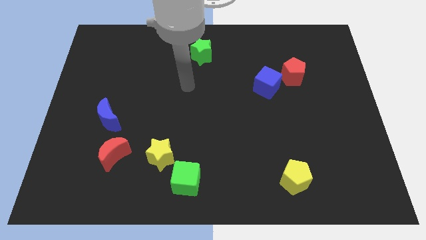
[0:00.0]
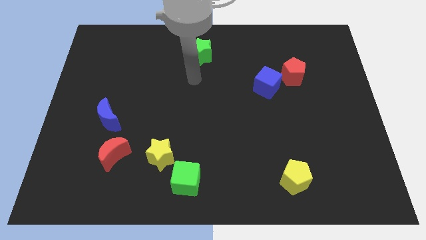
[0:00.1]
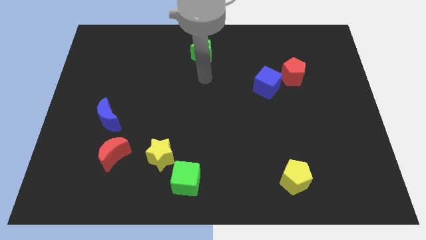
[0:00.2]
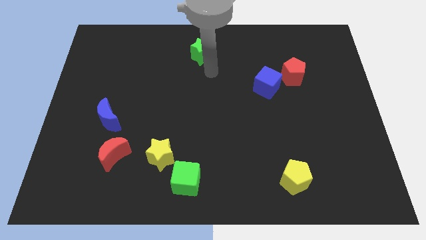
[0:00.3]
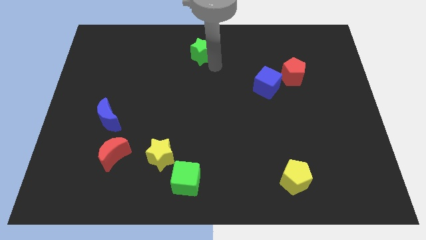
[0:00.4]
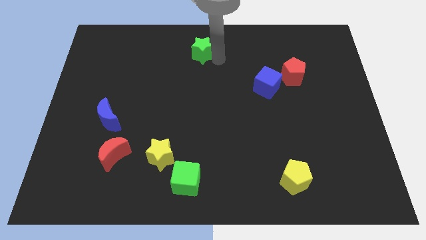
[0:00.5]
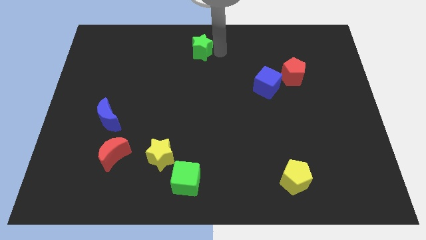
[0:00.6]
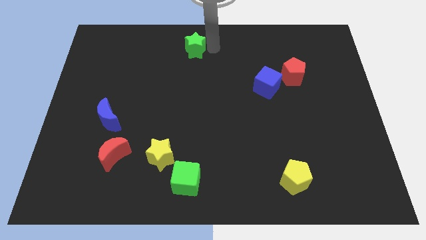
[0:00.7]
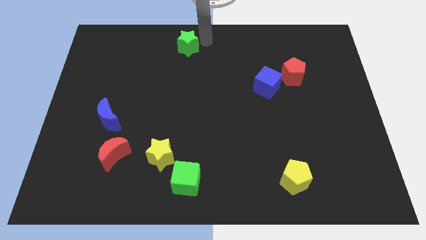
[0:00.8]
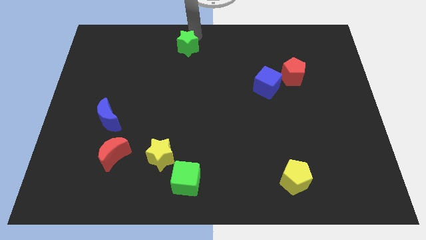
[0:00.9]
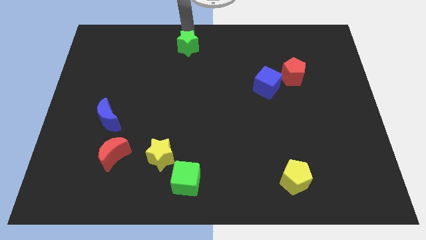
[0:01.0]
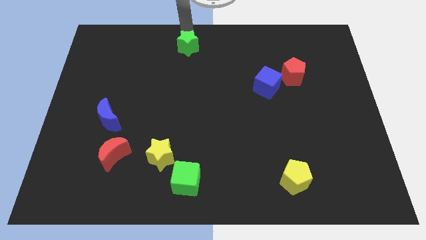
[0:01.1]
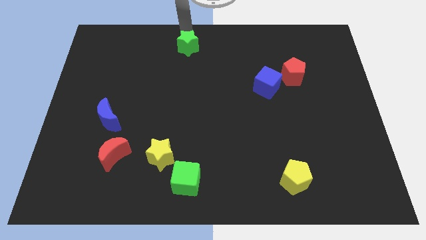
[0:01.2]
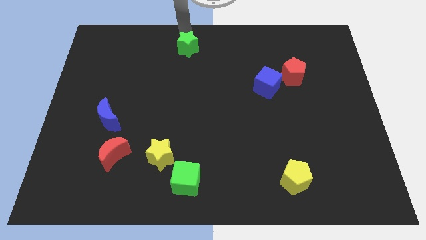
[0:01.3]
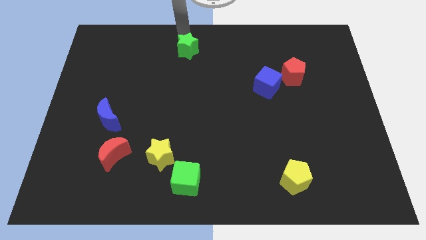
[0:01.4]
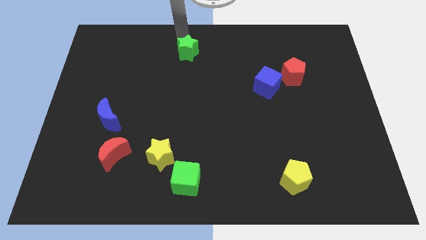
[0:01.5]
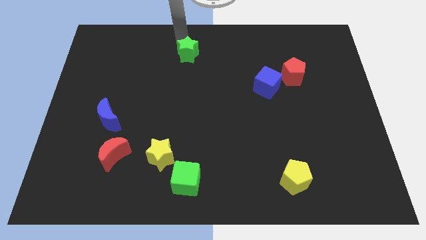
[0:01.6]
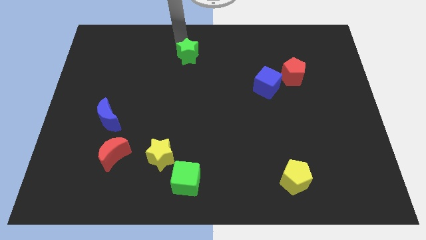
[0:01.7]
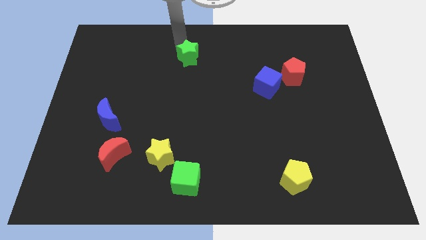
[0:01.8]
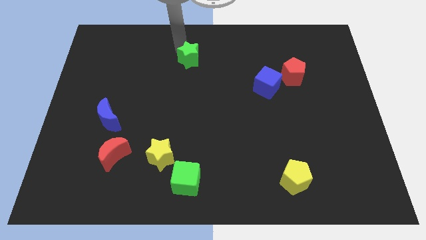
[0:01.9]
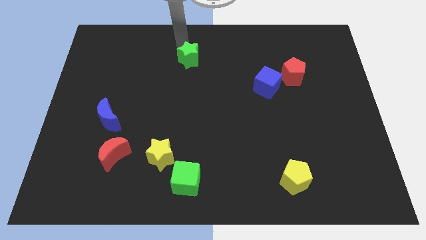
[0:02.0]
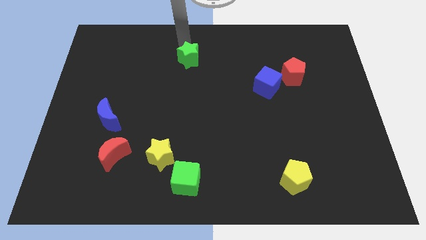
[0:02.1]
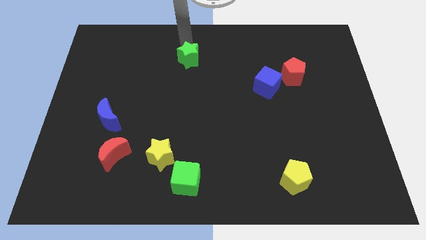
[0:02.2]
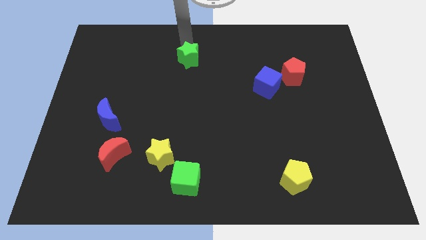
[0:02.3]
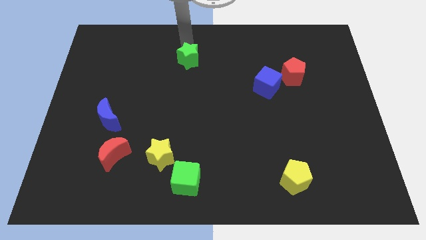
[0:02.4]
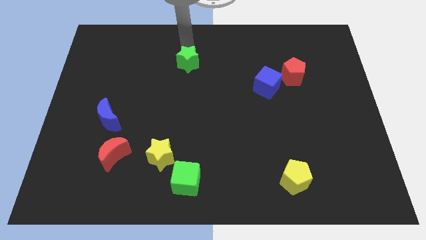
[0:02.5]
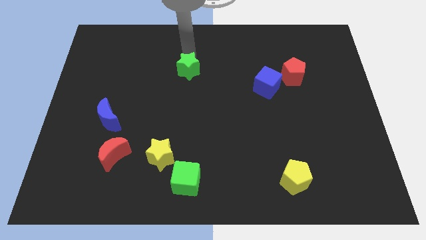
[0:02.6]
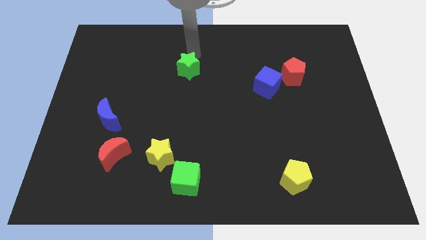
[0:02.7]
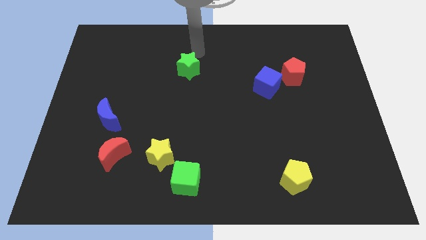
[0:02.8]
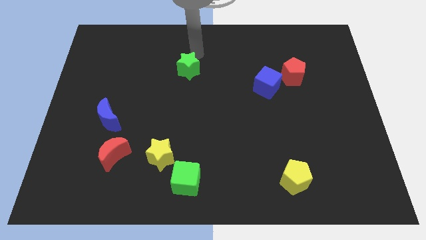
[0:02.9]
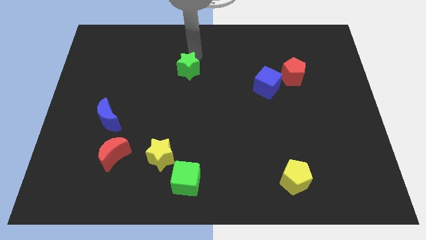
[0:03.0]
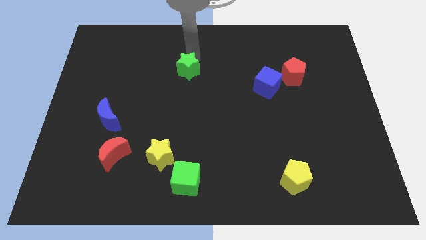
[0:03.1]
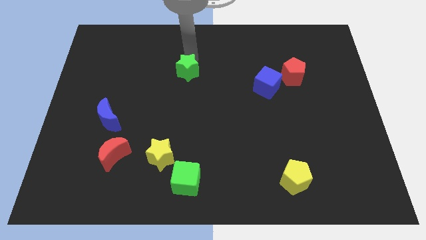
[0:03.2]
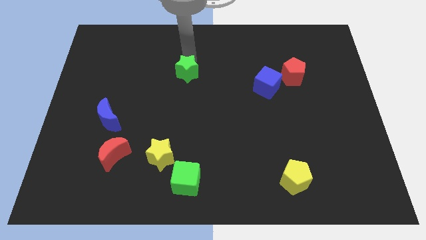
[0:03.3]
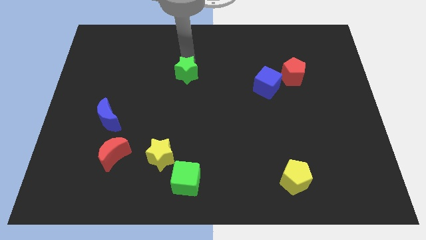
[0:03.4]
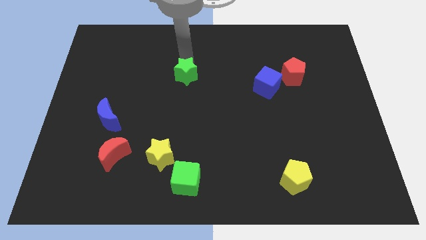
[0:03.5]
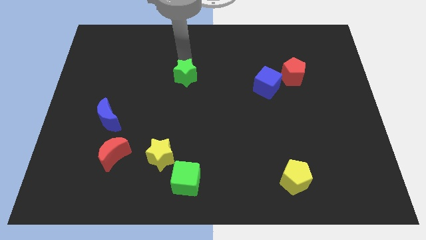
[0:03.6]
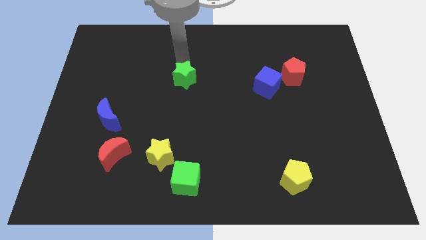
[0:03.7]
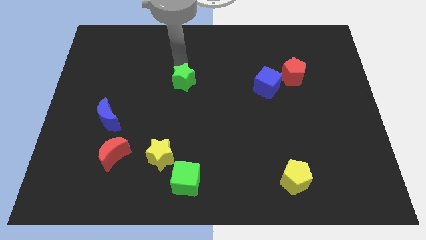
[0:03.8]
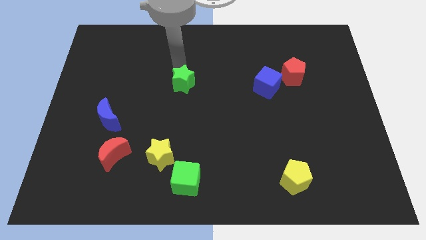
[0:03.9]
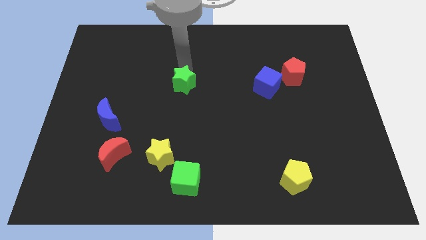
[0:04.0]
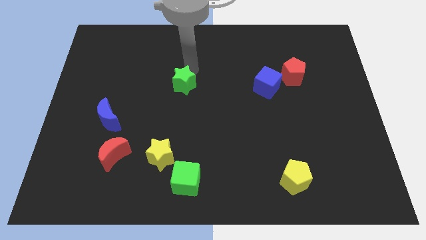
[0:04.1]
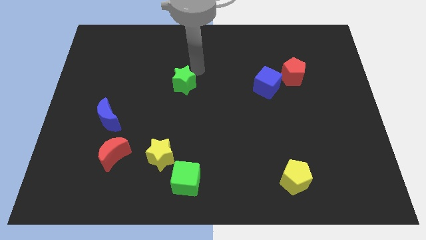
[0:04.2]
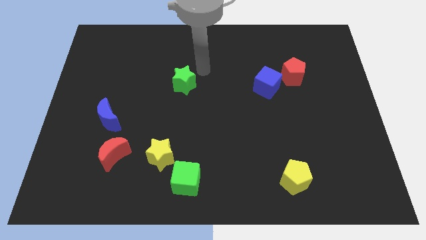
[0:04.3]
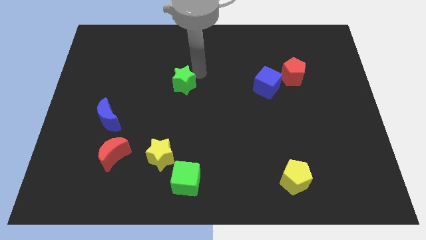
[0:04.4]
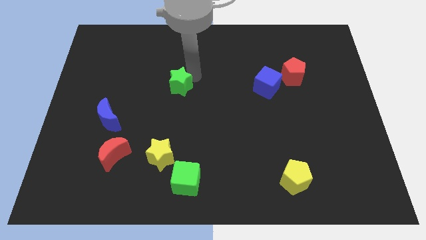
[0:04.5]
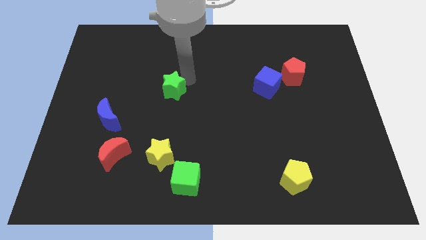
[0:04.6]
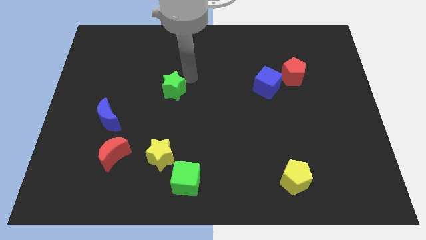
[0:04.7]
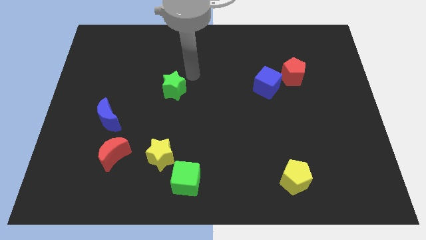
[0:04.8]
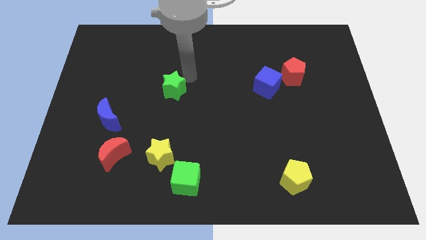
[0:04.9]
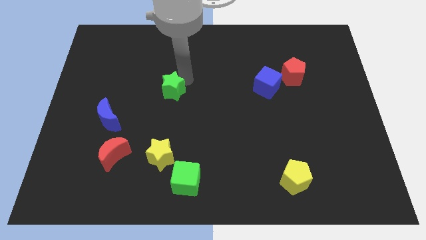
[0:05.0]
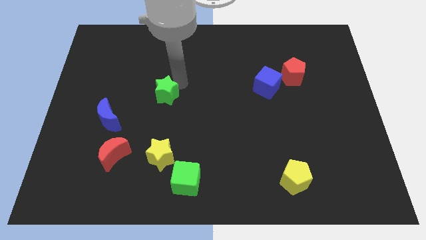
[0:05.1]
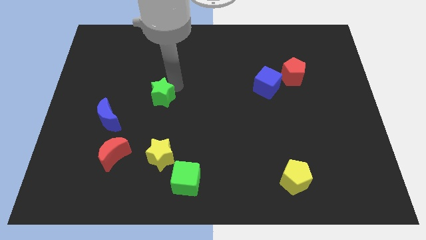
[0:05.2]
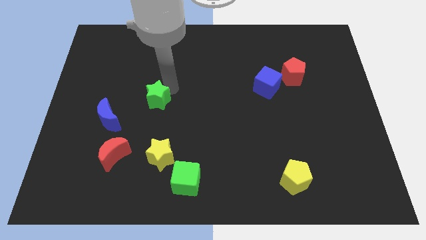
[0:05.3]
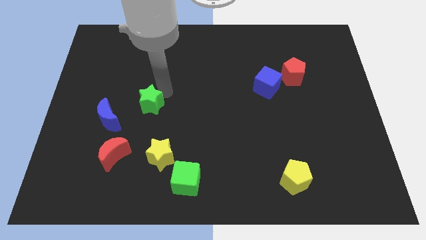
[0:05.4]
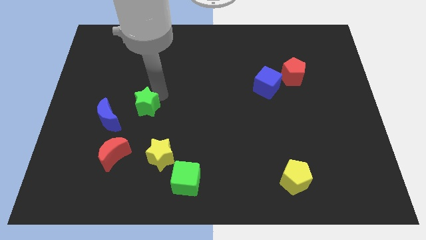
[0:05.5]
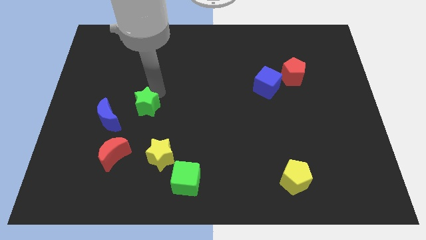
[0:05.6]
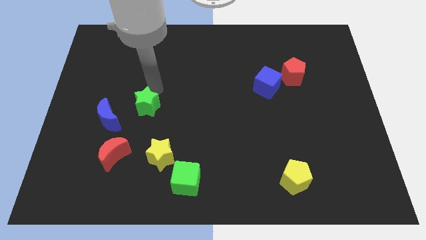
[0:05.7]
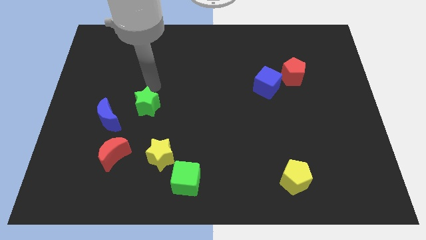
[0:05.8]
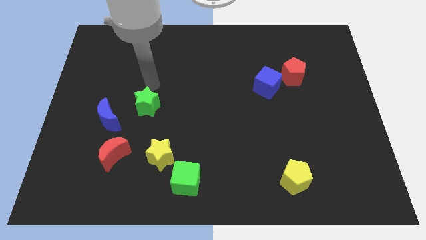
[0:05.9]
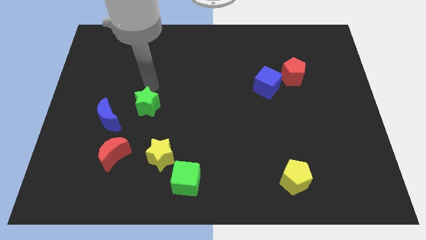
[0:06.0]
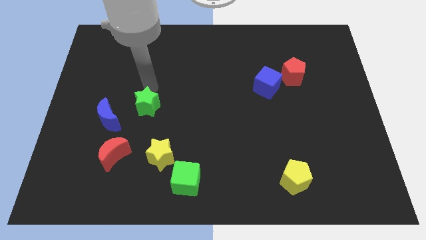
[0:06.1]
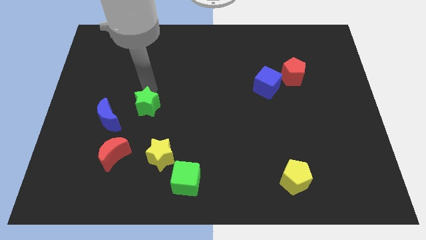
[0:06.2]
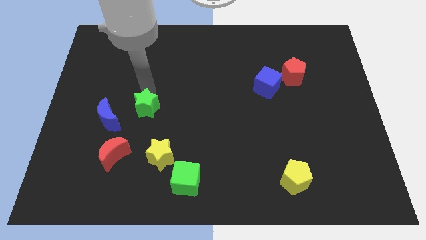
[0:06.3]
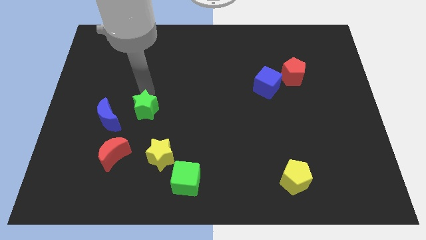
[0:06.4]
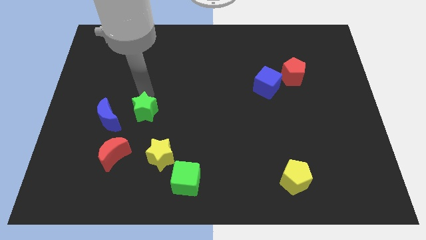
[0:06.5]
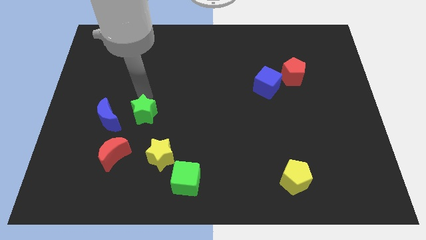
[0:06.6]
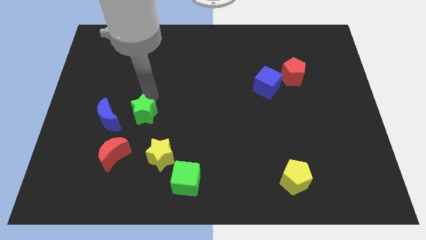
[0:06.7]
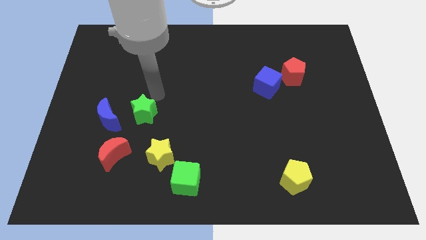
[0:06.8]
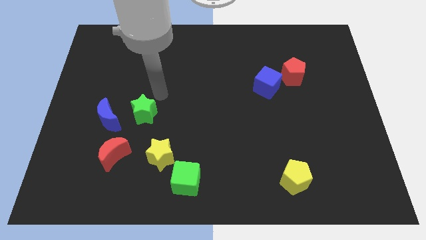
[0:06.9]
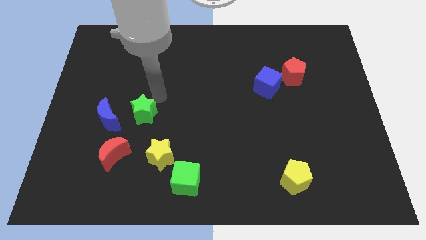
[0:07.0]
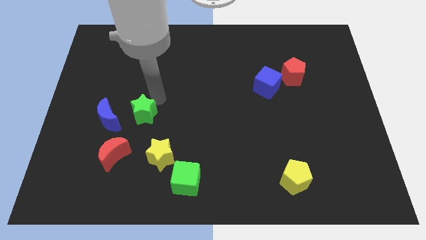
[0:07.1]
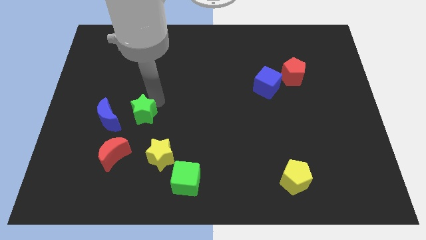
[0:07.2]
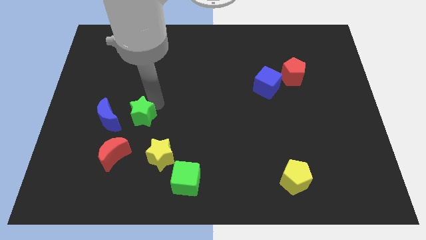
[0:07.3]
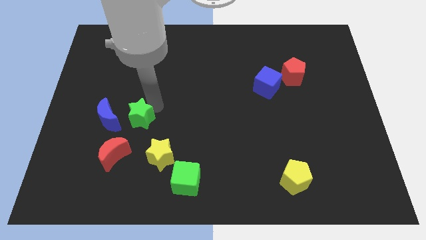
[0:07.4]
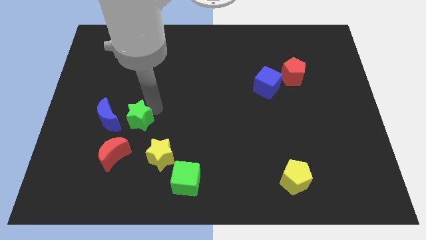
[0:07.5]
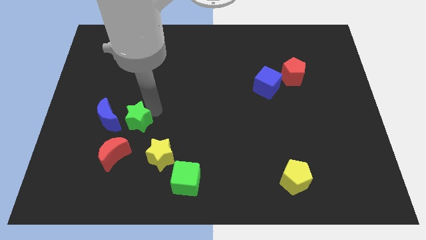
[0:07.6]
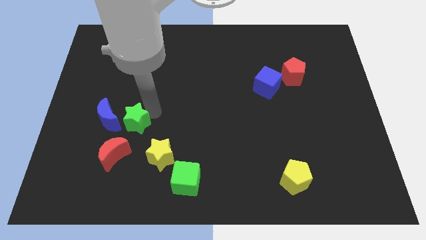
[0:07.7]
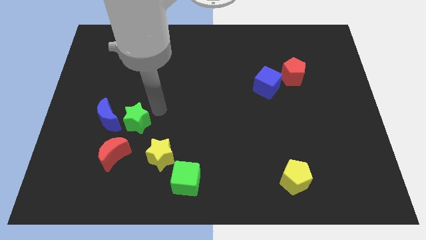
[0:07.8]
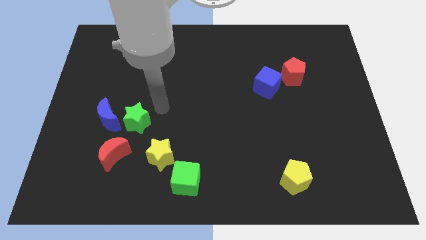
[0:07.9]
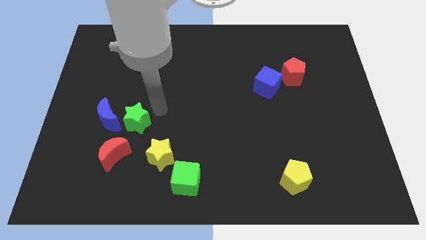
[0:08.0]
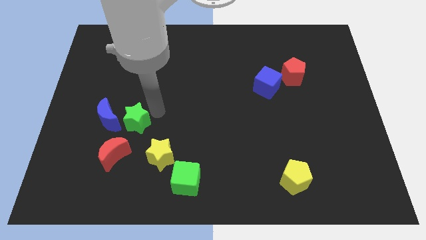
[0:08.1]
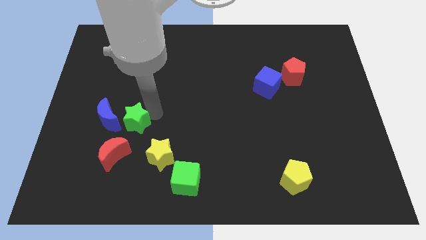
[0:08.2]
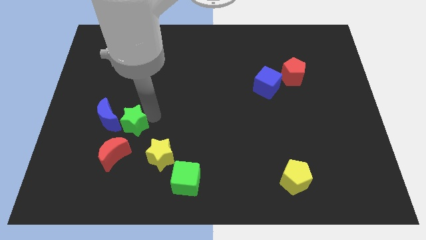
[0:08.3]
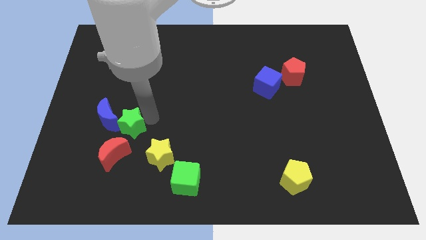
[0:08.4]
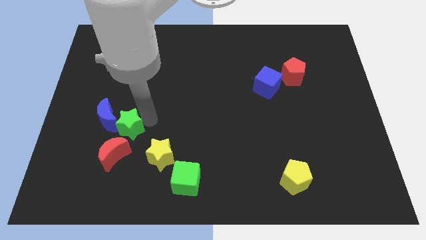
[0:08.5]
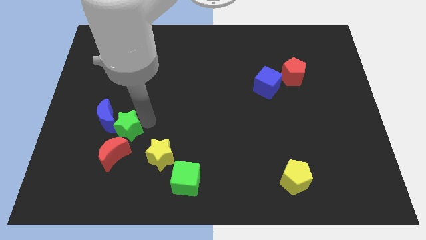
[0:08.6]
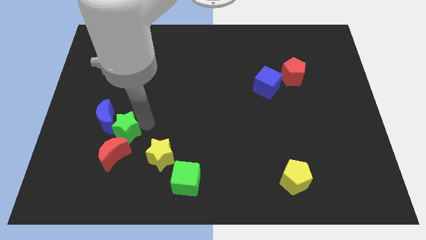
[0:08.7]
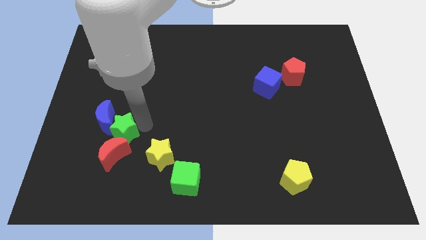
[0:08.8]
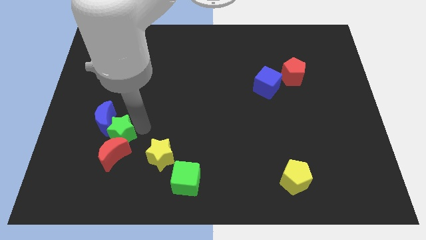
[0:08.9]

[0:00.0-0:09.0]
put the green star to the top left side of the red moon
